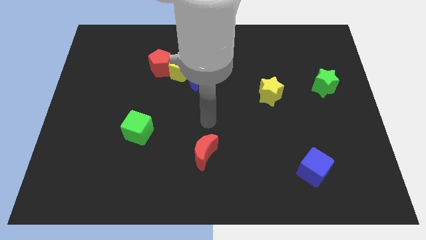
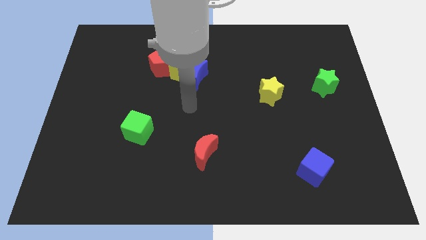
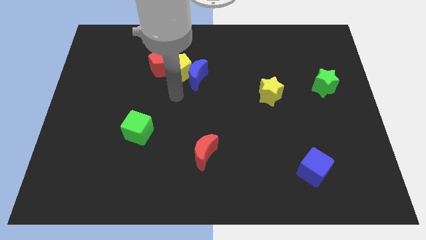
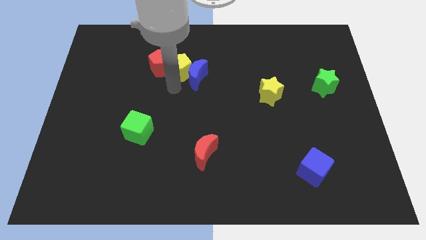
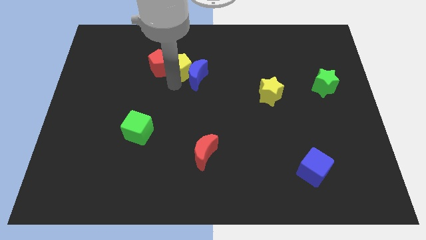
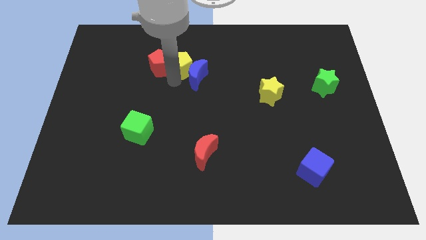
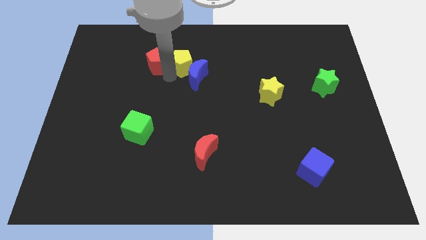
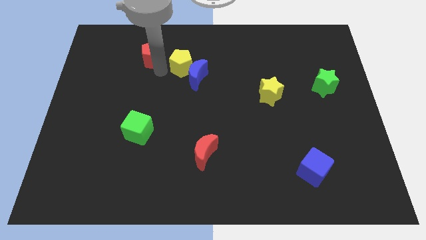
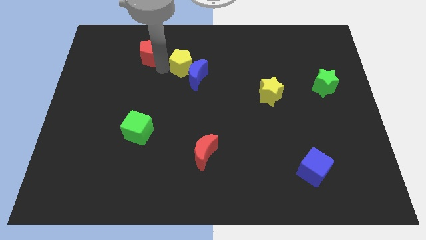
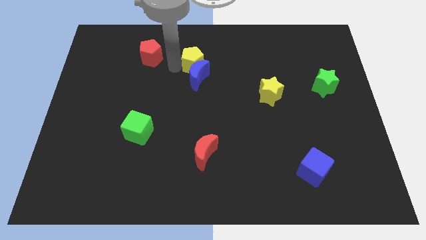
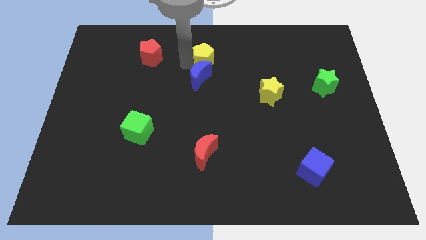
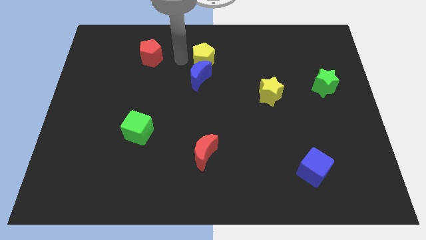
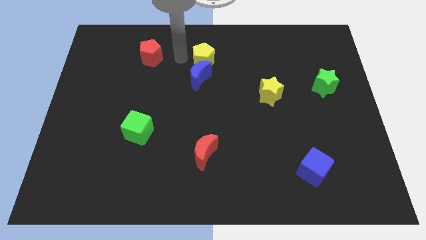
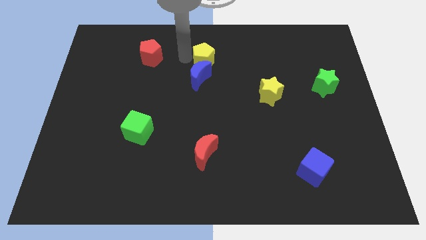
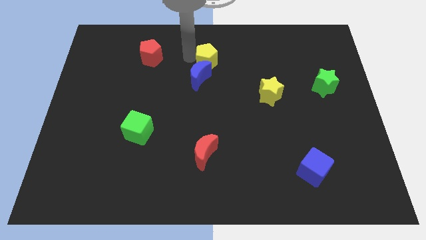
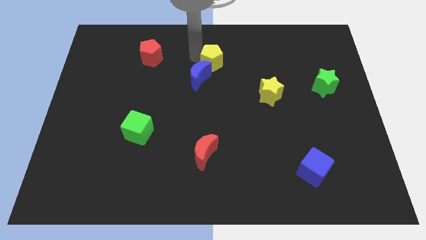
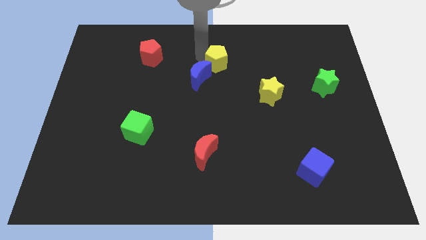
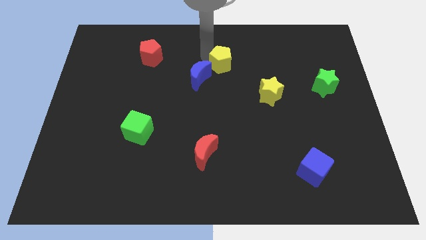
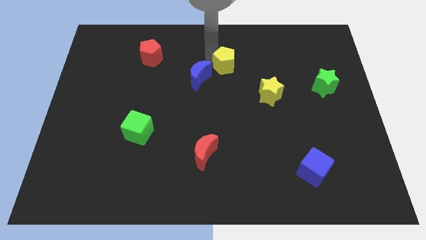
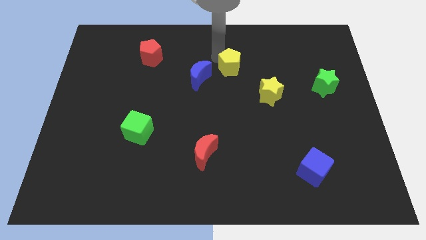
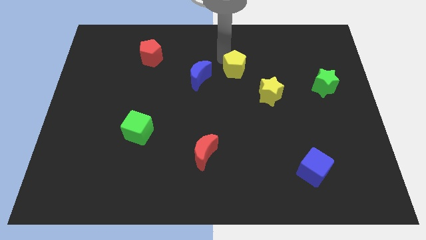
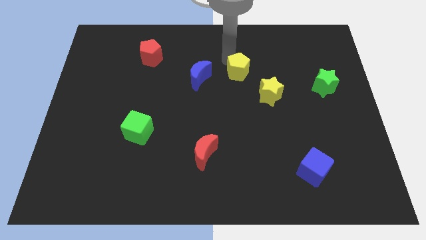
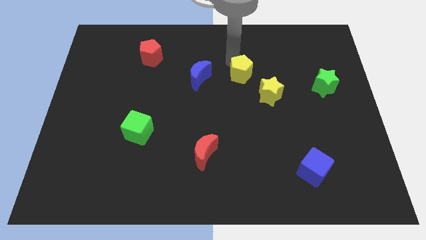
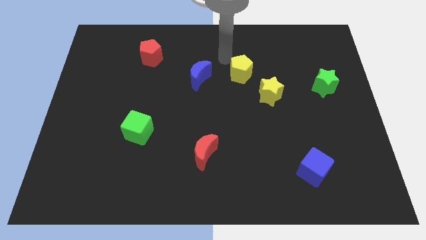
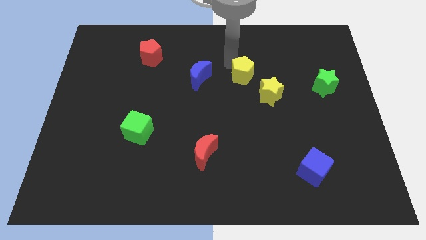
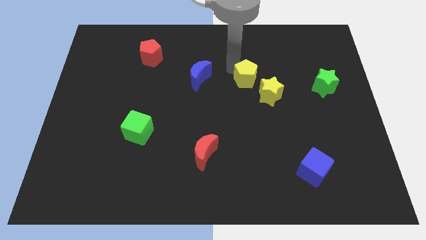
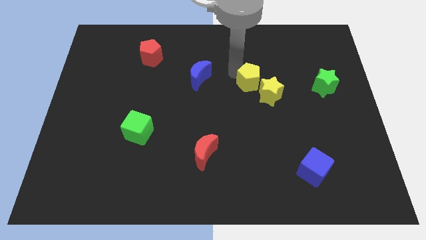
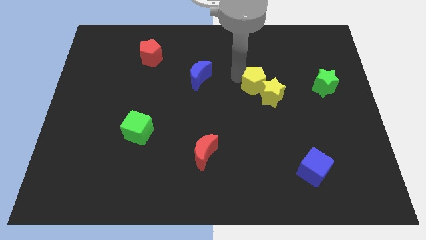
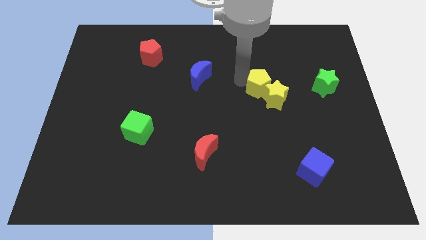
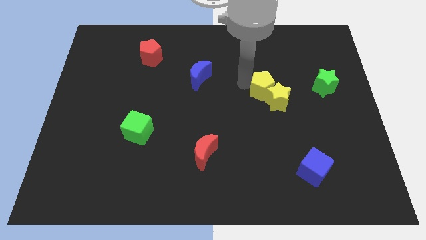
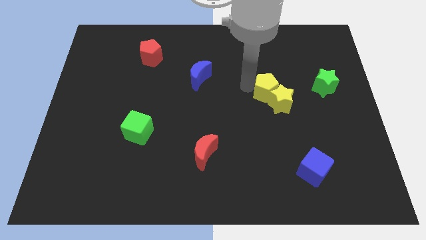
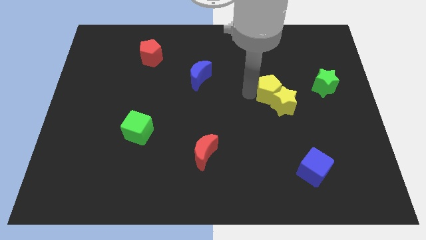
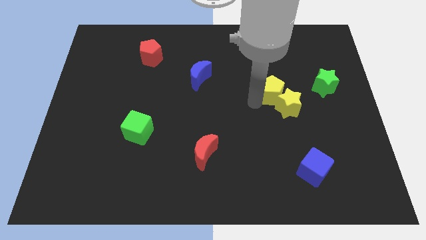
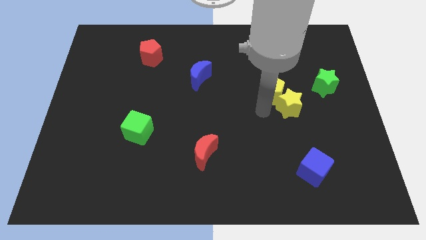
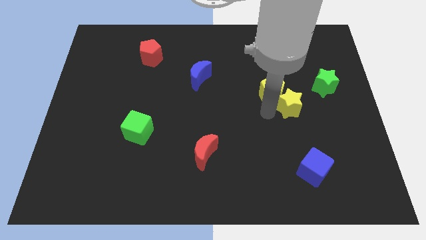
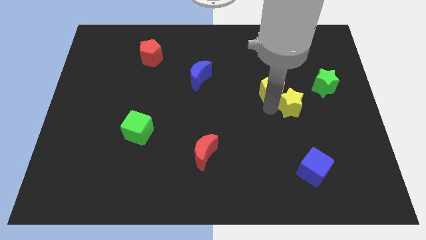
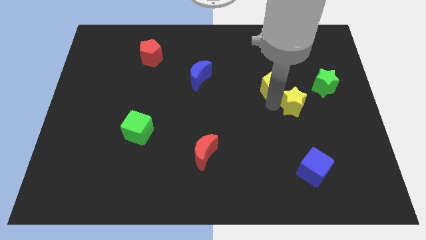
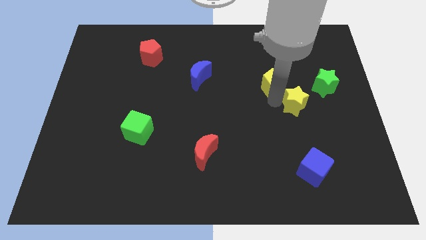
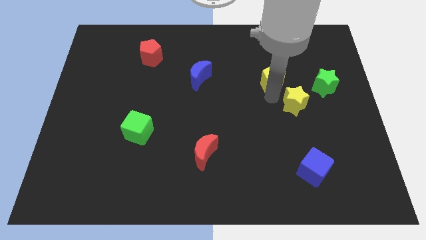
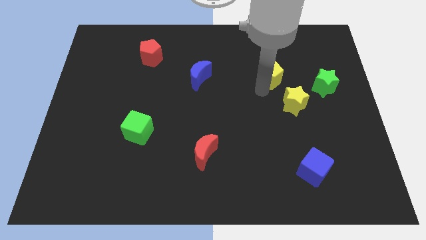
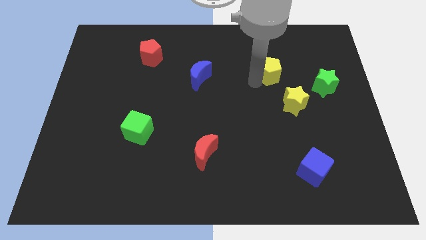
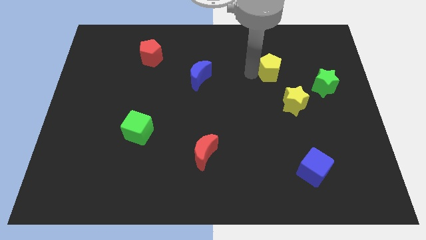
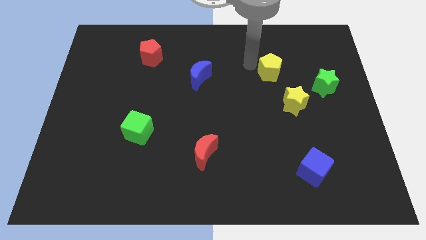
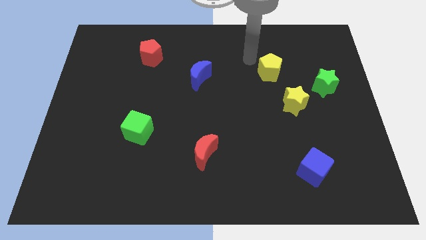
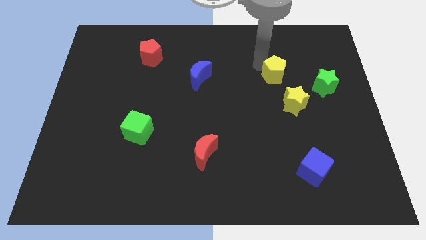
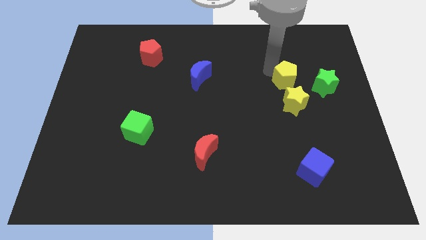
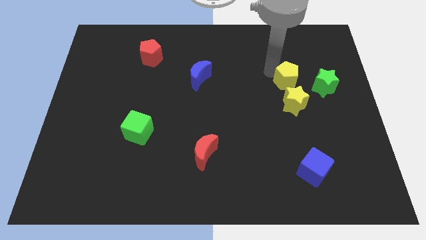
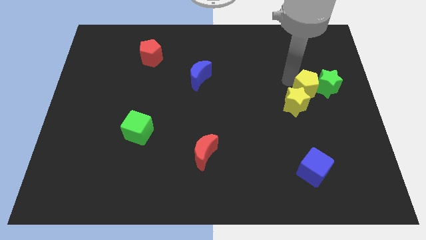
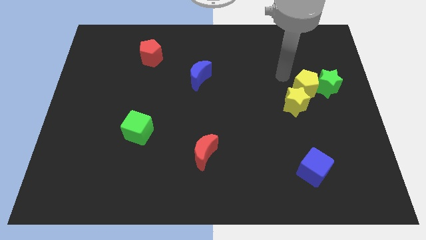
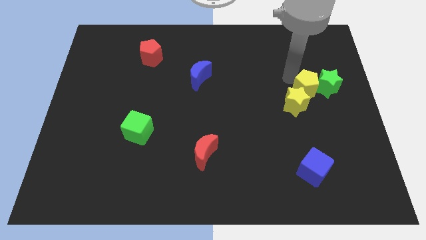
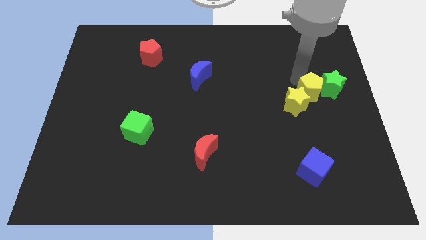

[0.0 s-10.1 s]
push the yellow pentagon right of the yellow star

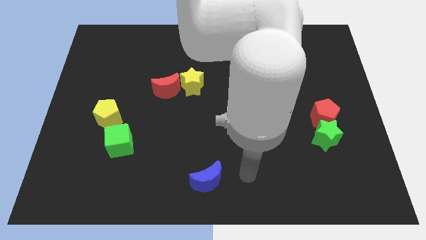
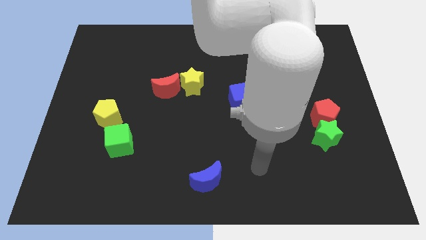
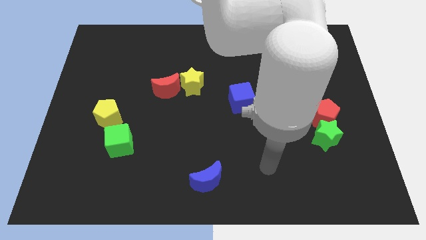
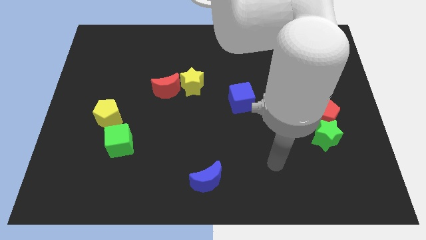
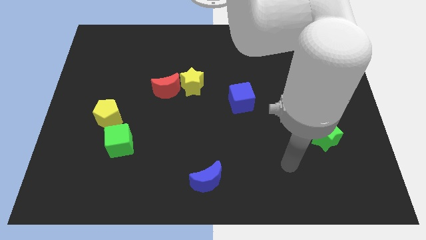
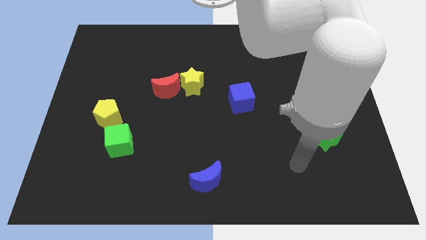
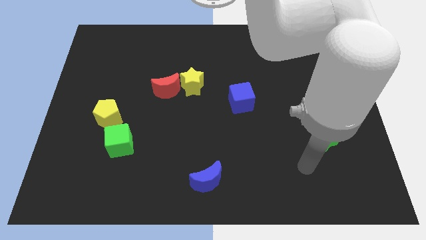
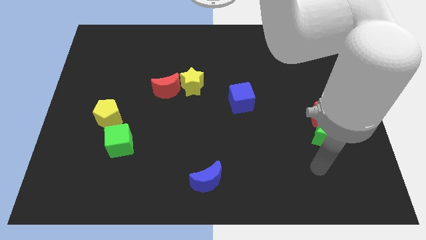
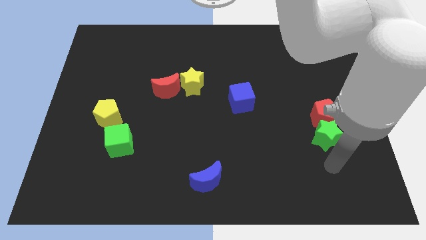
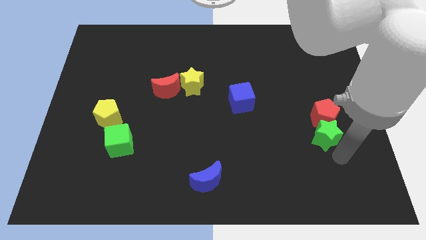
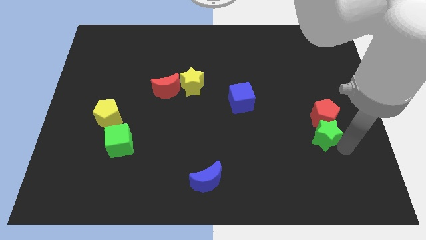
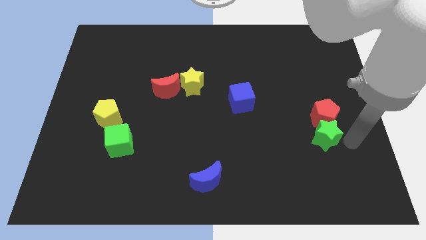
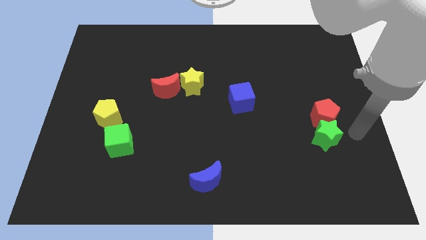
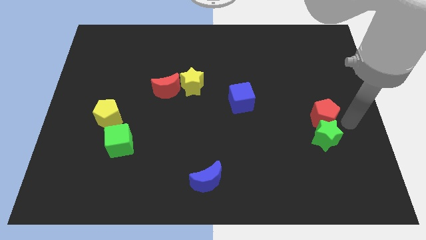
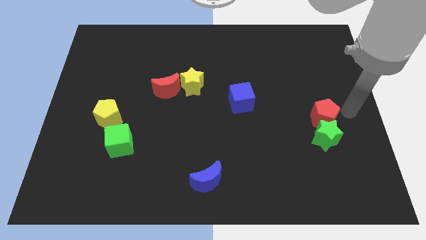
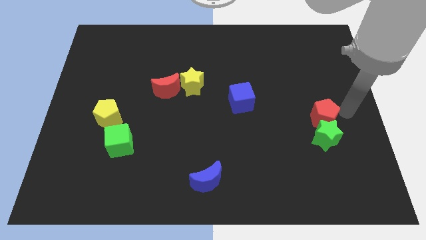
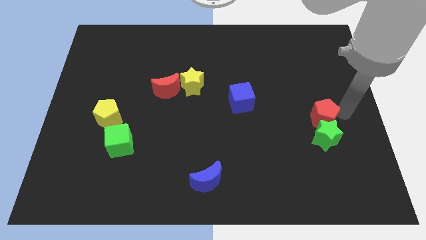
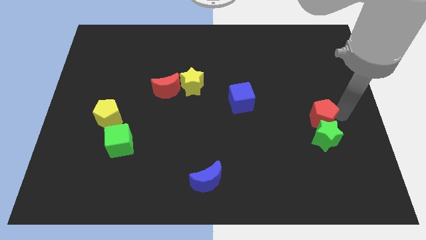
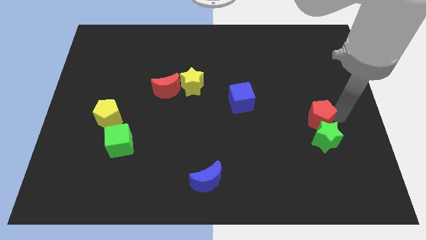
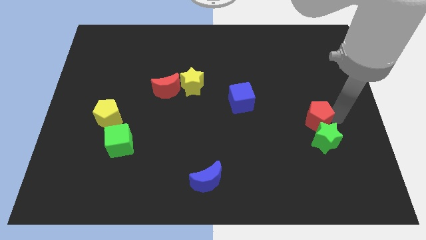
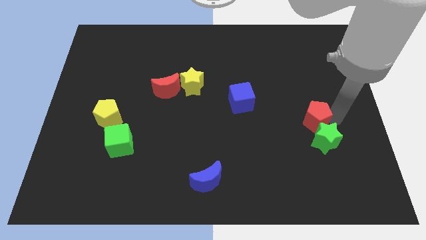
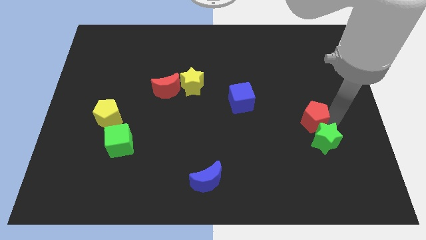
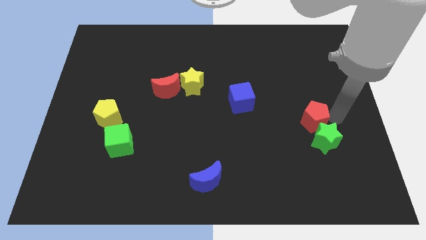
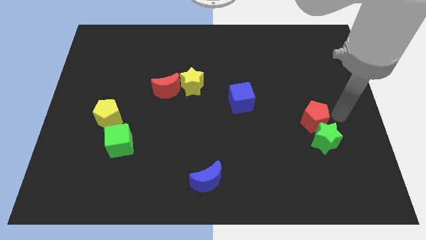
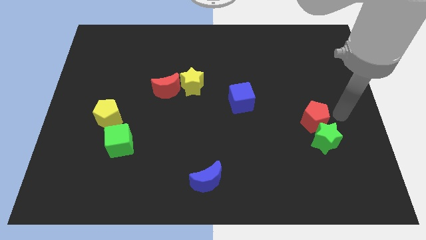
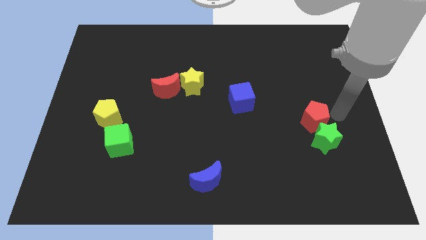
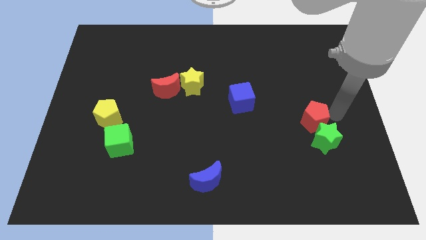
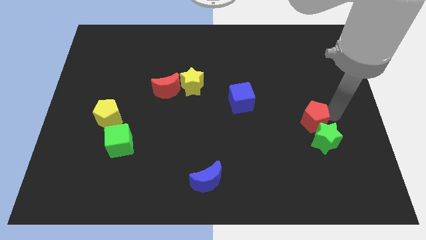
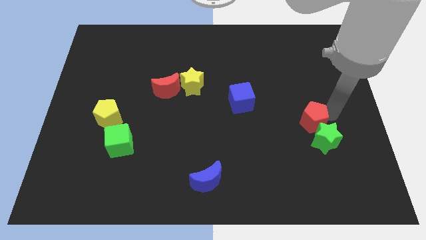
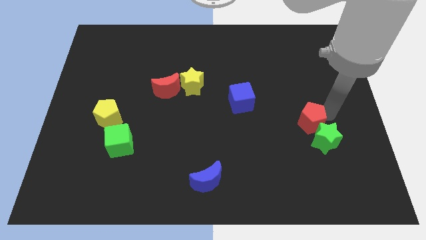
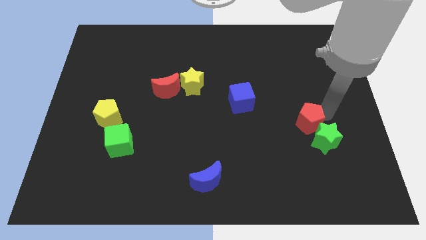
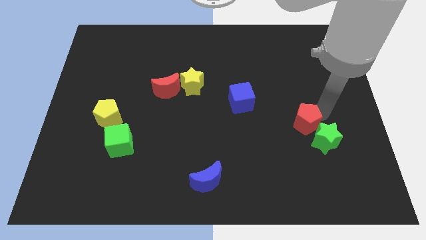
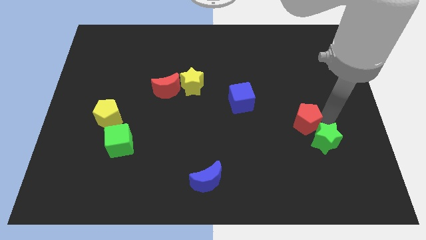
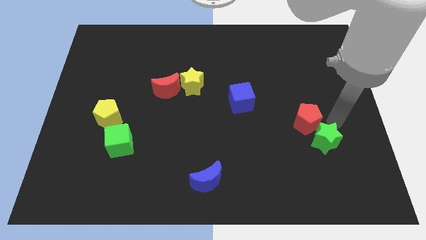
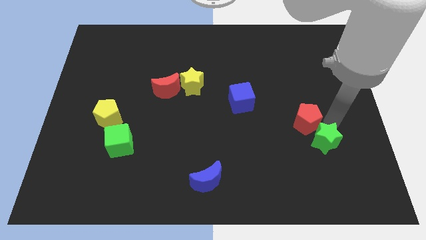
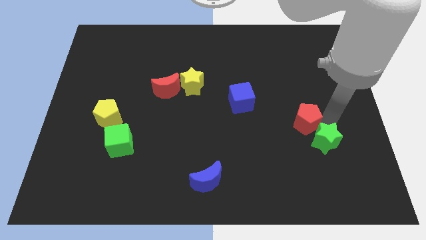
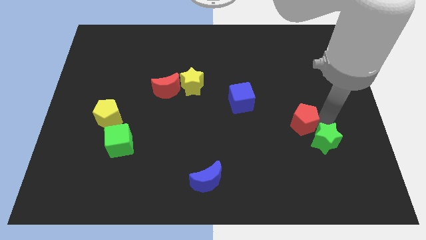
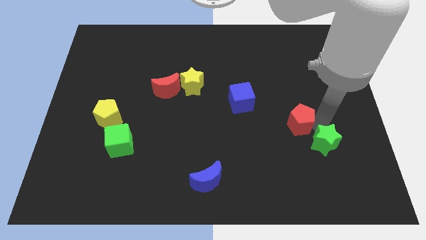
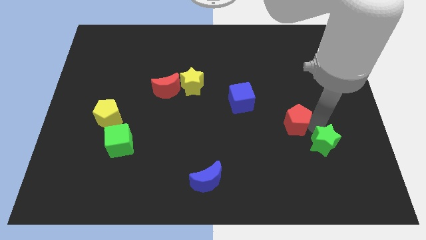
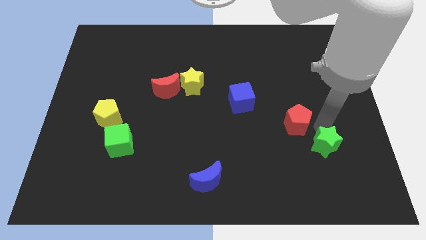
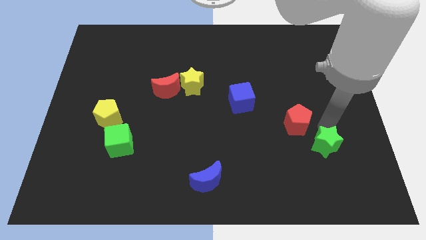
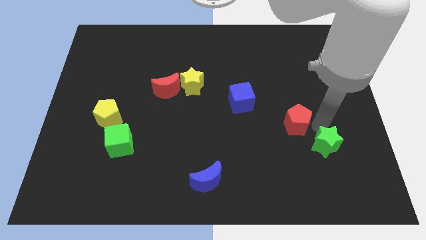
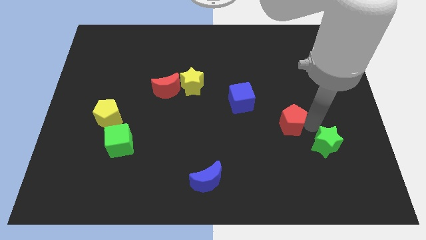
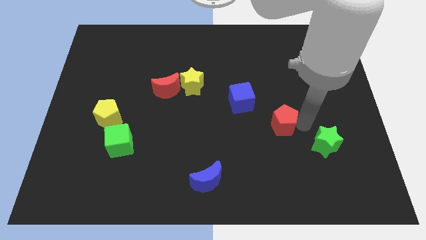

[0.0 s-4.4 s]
slide the red pentagon diagonally down and to the right of the blue cube
